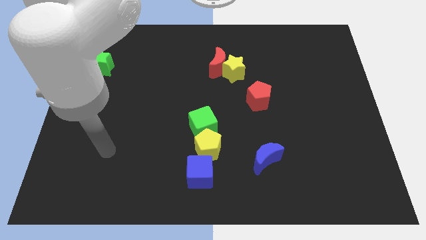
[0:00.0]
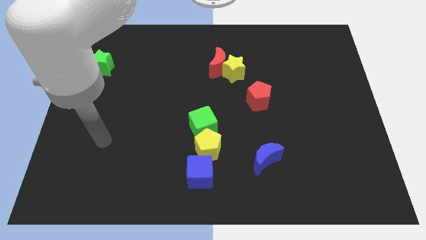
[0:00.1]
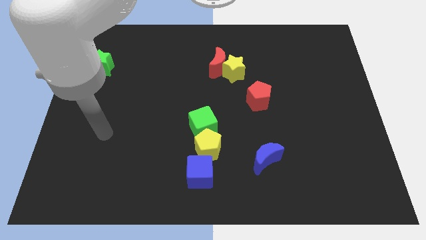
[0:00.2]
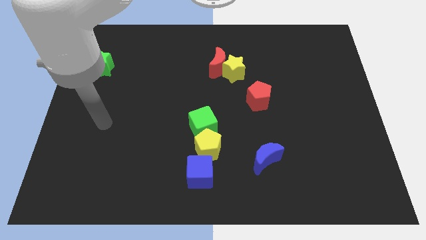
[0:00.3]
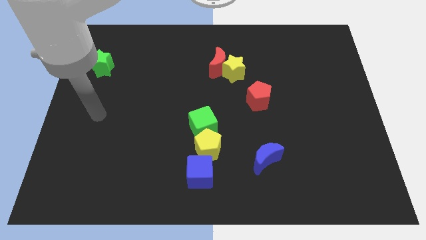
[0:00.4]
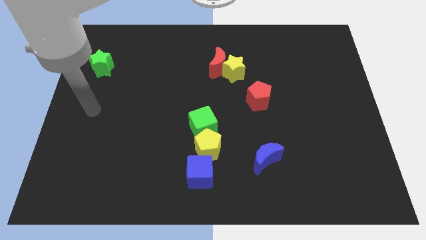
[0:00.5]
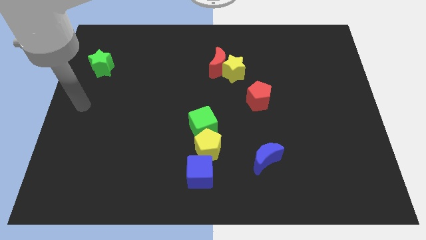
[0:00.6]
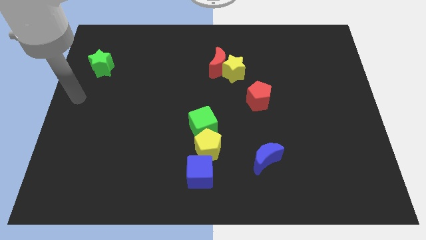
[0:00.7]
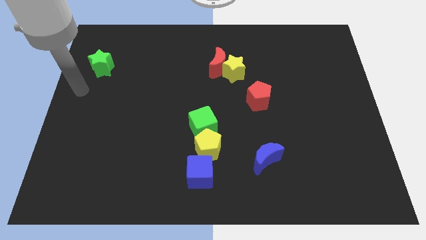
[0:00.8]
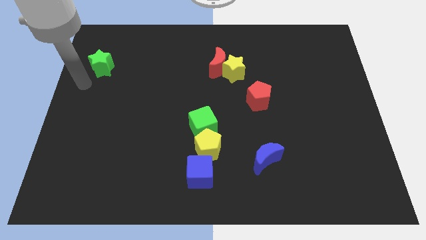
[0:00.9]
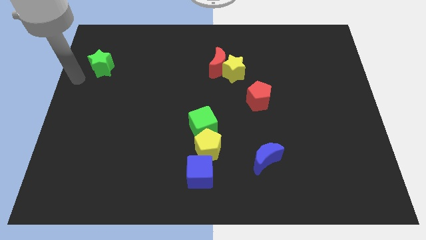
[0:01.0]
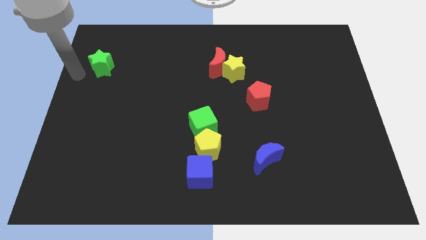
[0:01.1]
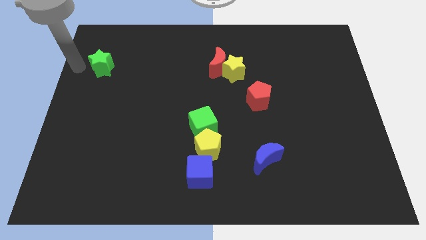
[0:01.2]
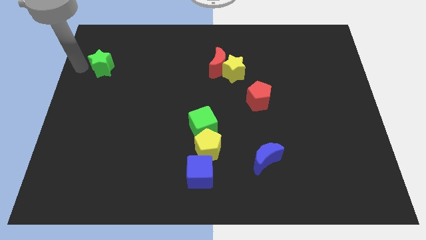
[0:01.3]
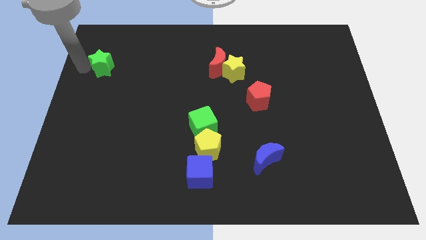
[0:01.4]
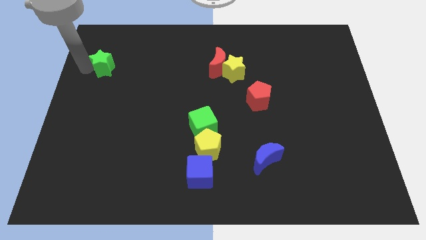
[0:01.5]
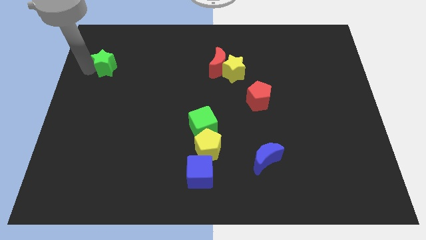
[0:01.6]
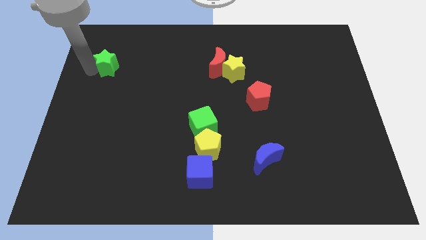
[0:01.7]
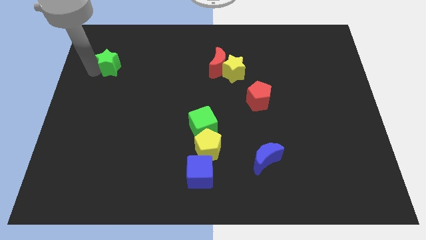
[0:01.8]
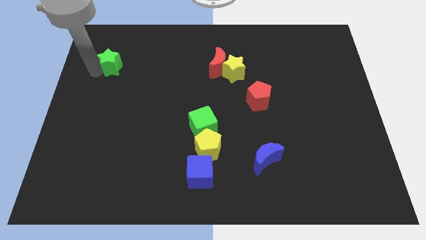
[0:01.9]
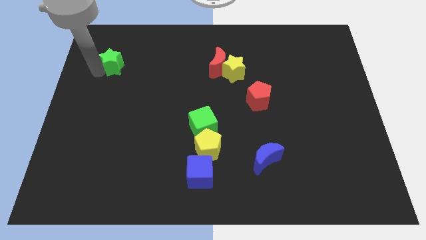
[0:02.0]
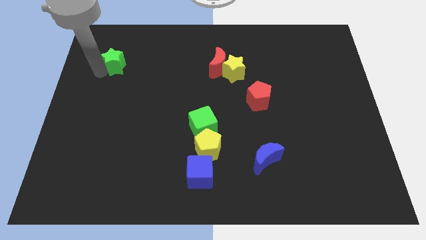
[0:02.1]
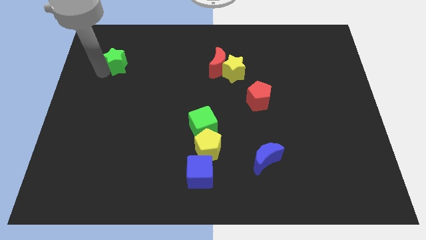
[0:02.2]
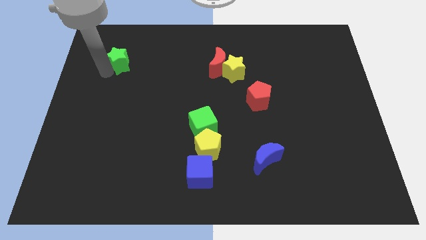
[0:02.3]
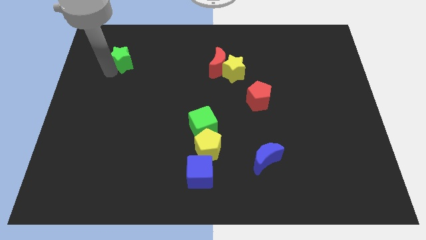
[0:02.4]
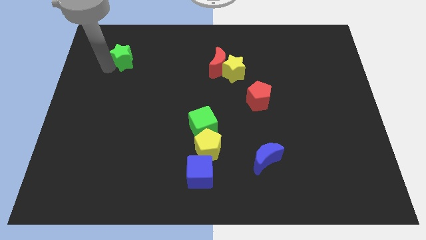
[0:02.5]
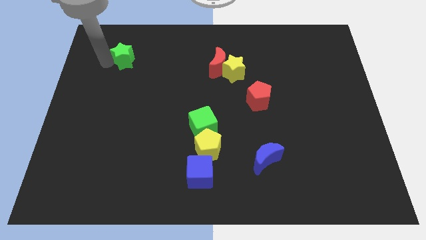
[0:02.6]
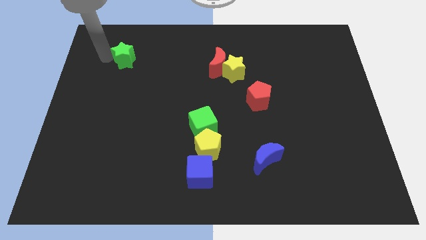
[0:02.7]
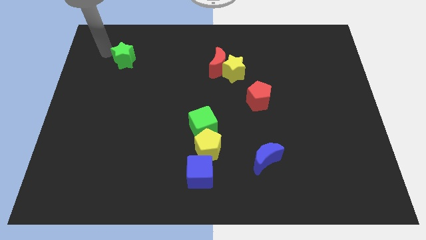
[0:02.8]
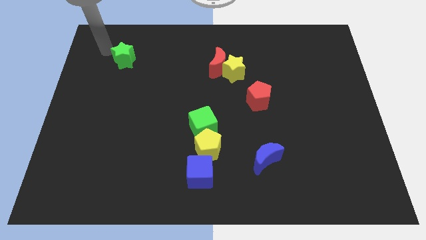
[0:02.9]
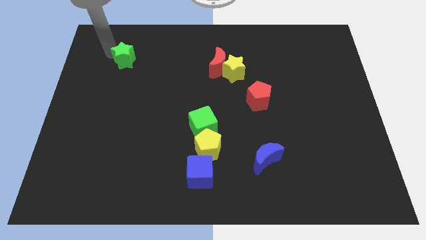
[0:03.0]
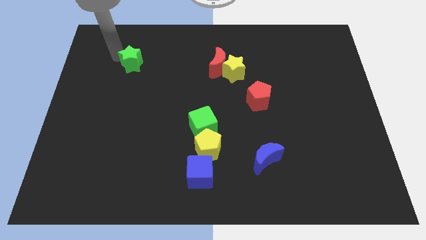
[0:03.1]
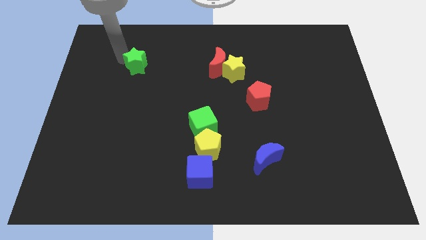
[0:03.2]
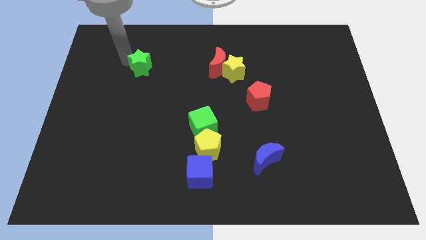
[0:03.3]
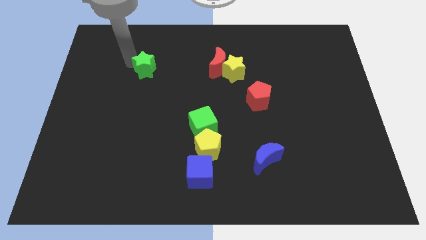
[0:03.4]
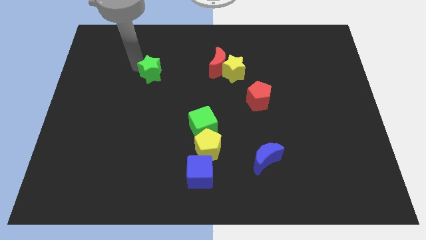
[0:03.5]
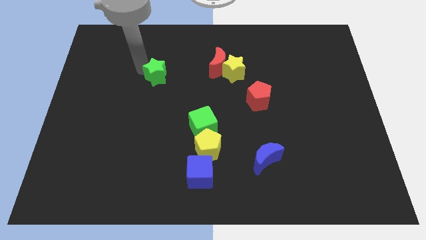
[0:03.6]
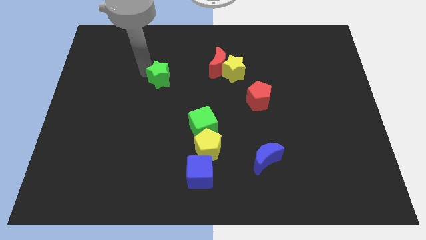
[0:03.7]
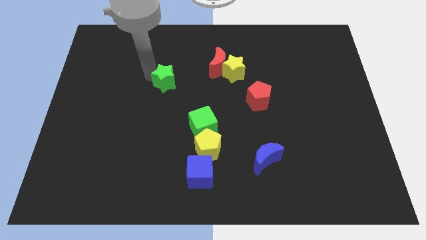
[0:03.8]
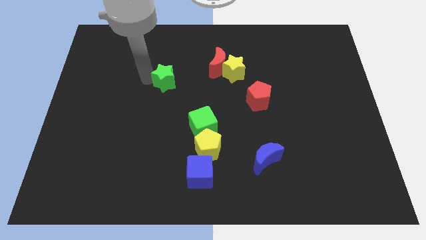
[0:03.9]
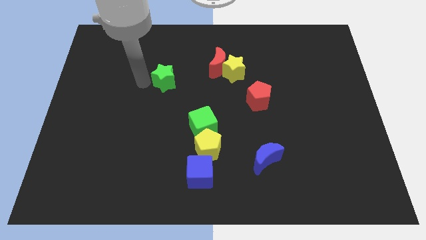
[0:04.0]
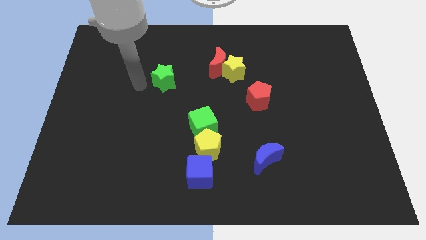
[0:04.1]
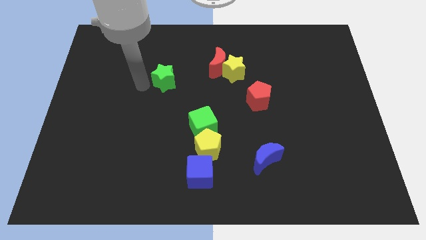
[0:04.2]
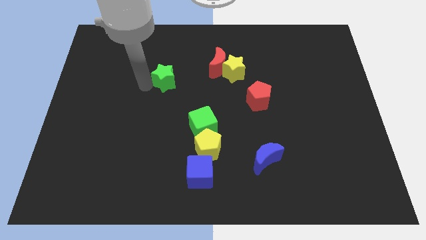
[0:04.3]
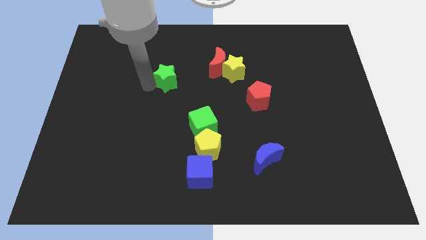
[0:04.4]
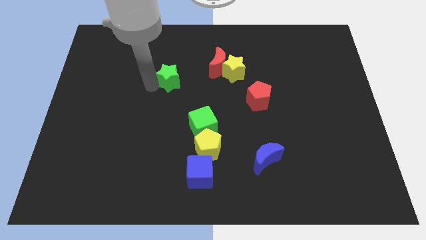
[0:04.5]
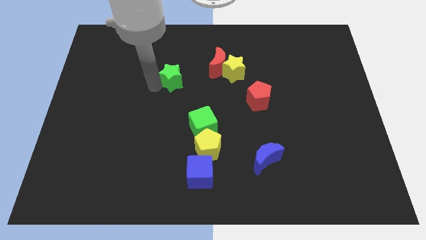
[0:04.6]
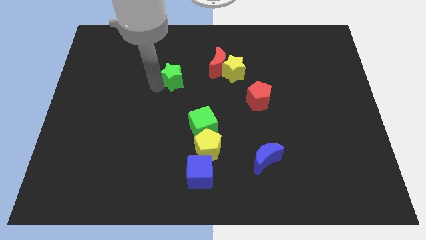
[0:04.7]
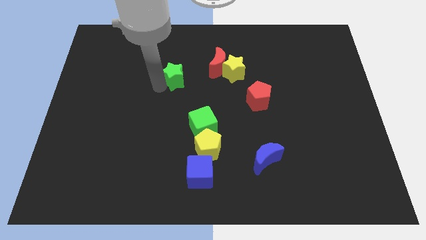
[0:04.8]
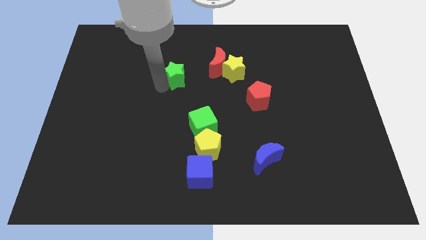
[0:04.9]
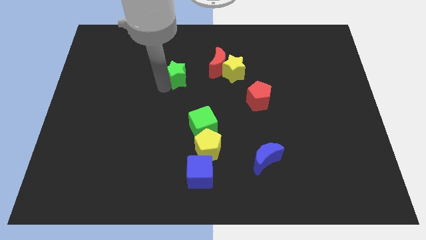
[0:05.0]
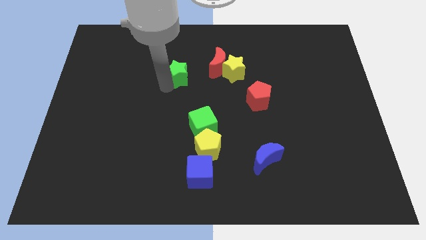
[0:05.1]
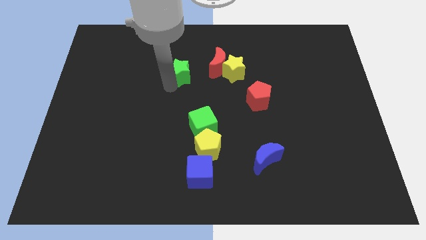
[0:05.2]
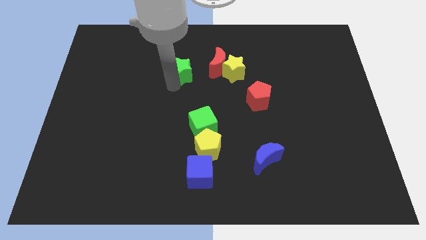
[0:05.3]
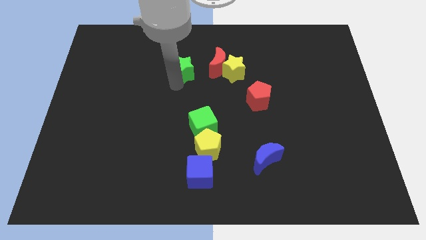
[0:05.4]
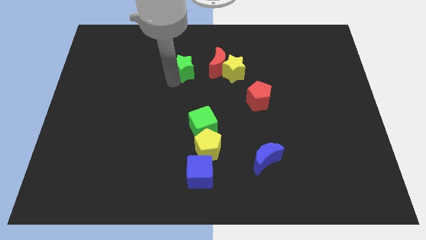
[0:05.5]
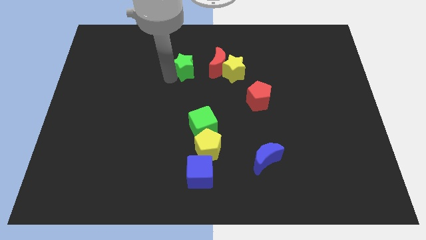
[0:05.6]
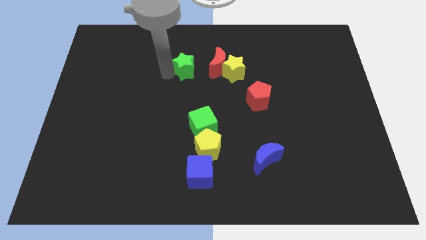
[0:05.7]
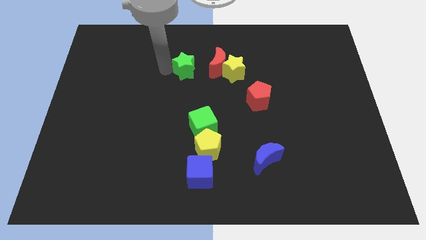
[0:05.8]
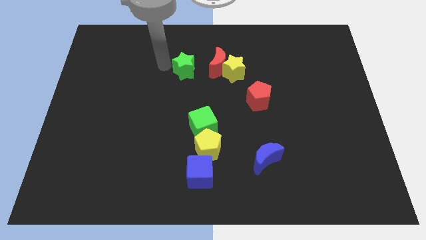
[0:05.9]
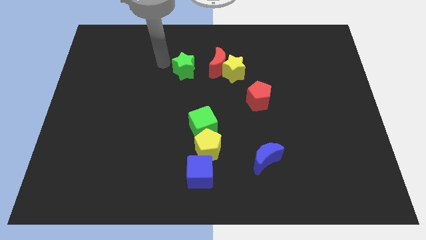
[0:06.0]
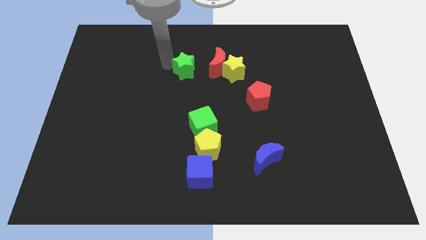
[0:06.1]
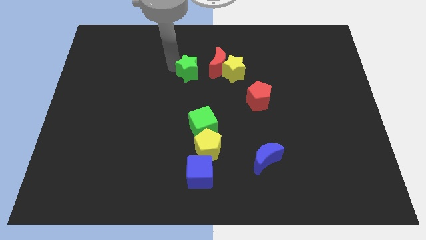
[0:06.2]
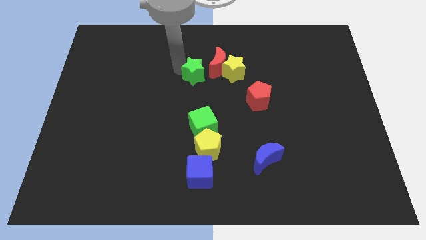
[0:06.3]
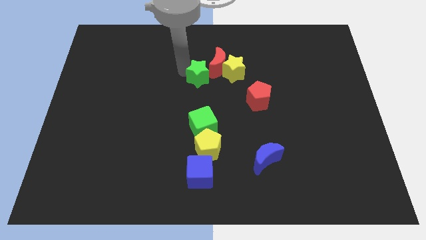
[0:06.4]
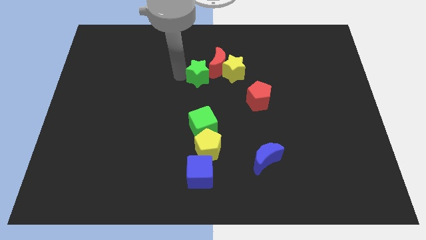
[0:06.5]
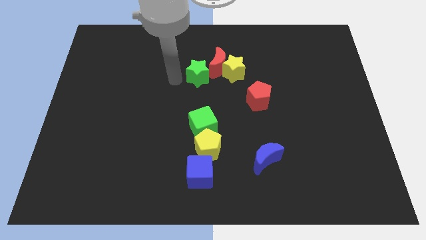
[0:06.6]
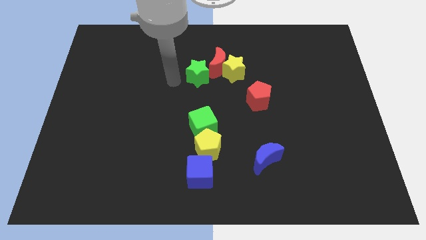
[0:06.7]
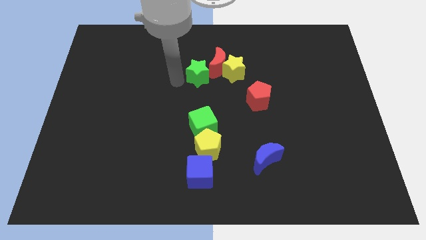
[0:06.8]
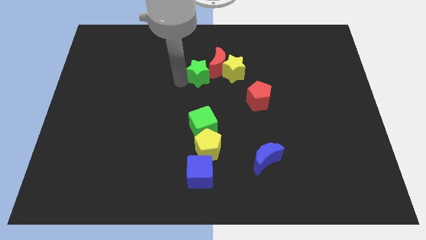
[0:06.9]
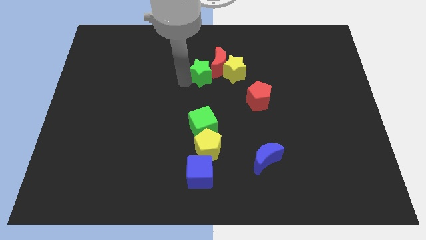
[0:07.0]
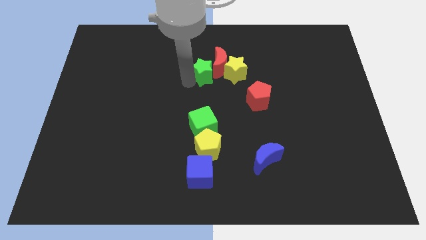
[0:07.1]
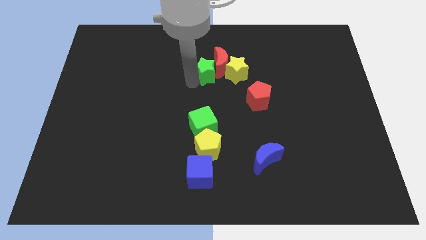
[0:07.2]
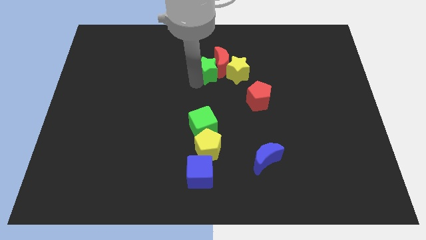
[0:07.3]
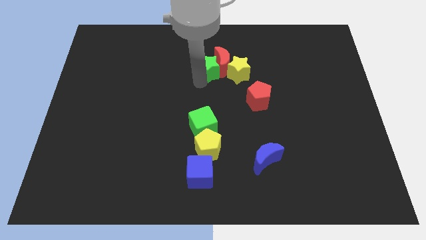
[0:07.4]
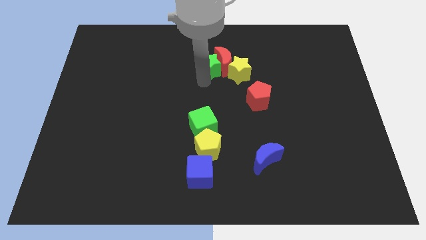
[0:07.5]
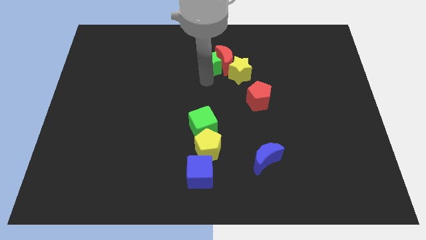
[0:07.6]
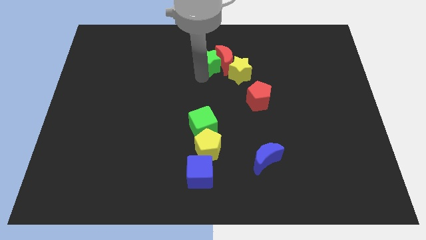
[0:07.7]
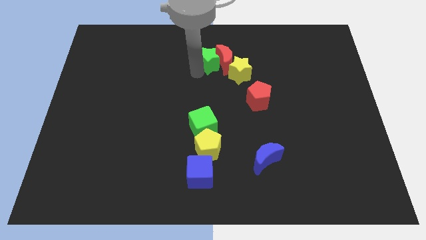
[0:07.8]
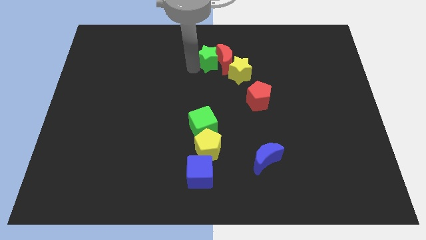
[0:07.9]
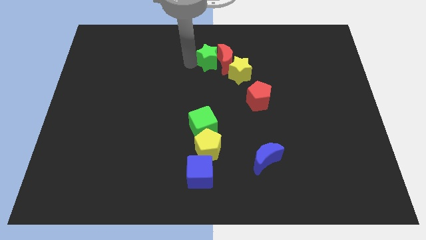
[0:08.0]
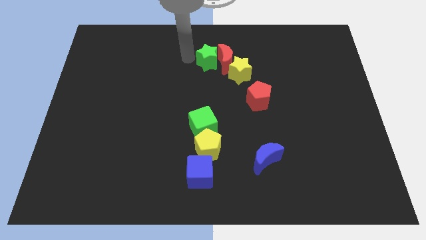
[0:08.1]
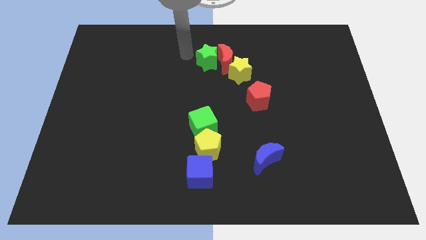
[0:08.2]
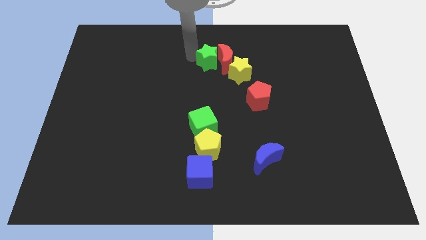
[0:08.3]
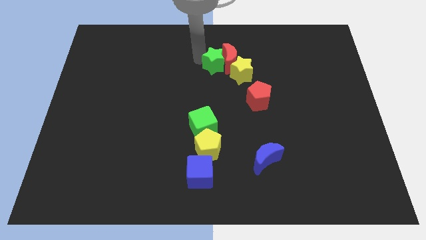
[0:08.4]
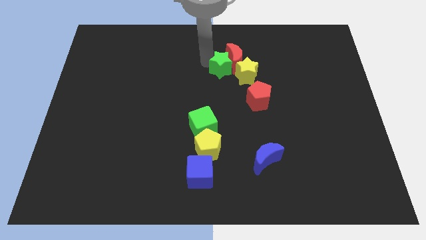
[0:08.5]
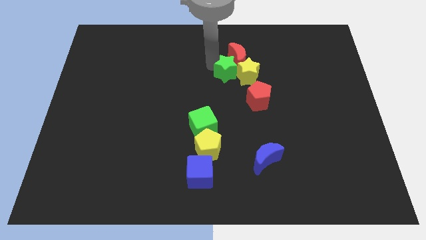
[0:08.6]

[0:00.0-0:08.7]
move the green star next to the yellow star
